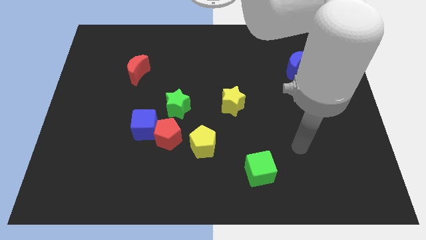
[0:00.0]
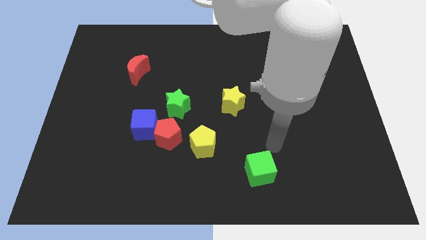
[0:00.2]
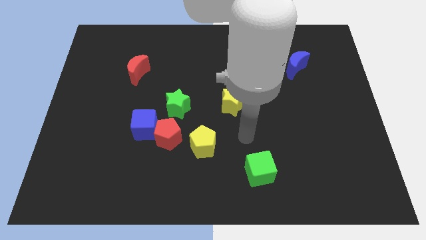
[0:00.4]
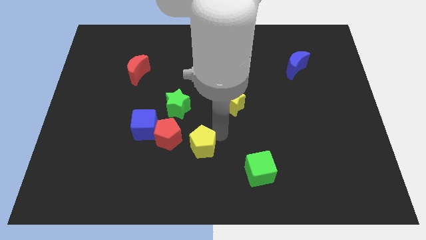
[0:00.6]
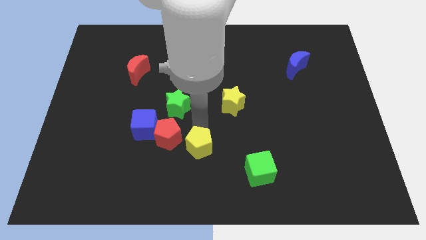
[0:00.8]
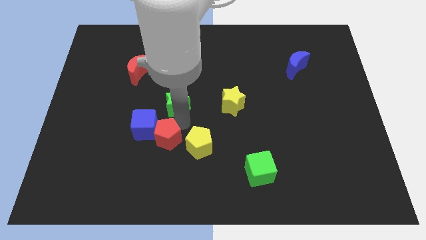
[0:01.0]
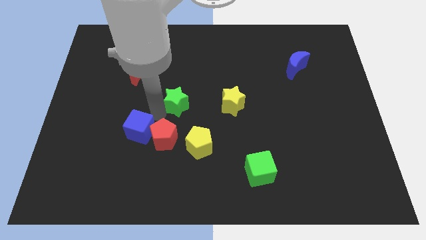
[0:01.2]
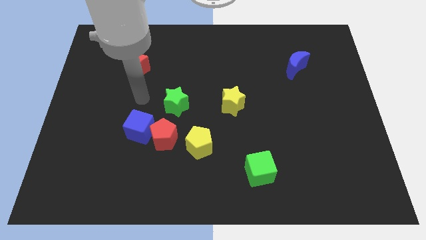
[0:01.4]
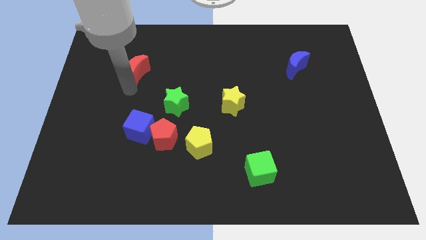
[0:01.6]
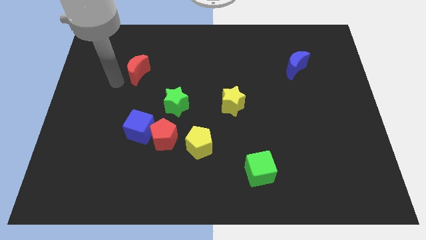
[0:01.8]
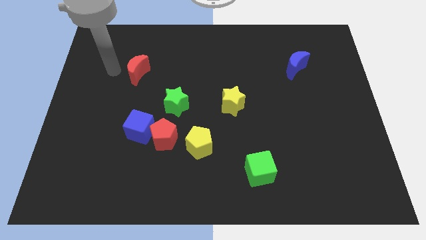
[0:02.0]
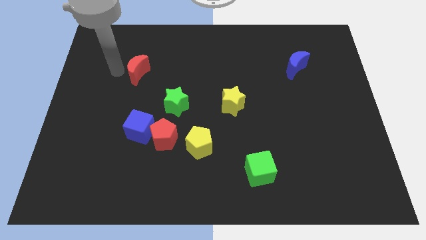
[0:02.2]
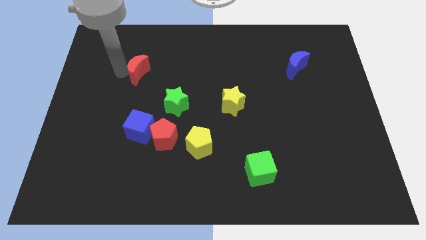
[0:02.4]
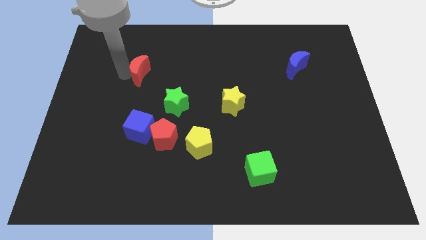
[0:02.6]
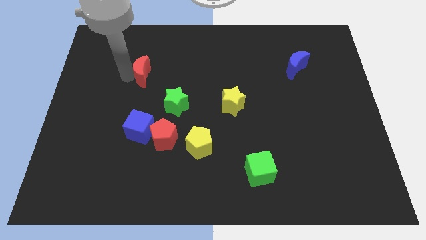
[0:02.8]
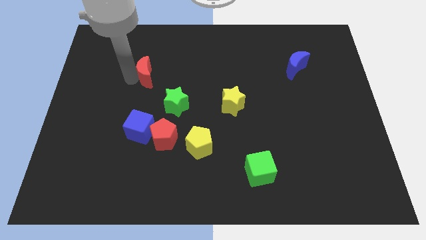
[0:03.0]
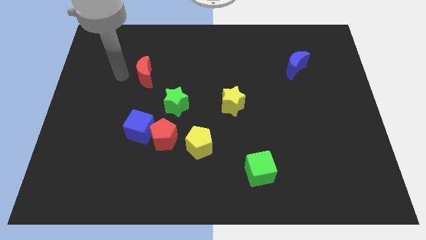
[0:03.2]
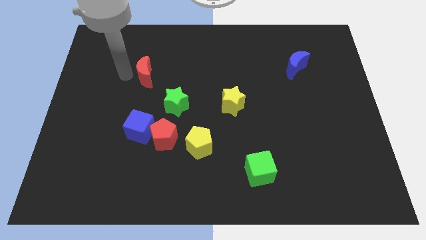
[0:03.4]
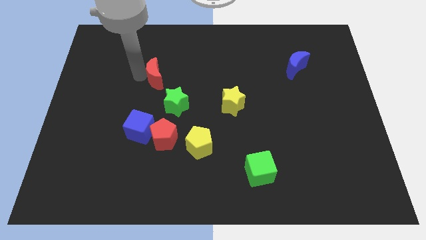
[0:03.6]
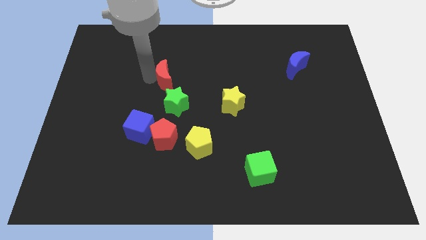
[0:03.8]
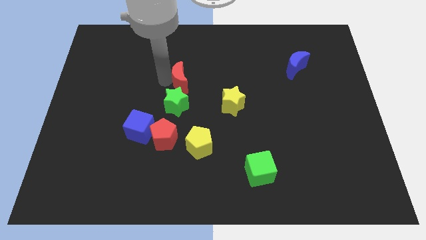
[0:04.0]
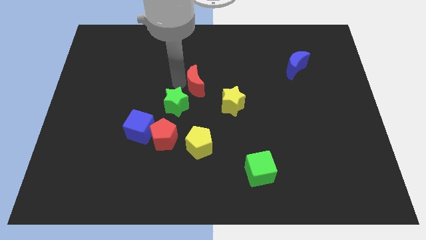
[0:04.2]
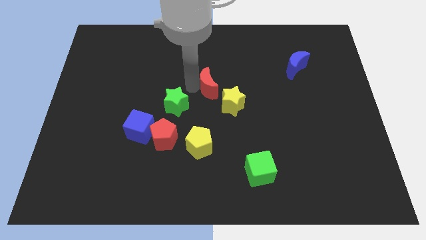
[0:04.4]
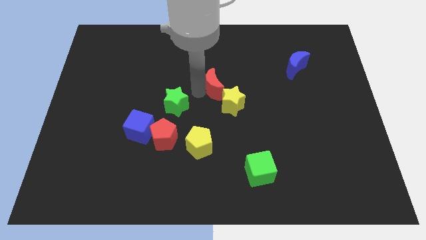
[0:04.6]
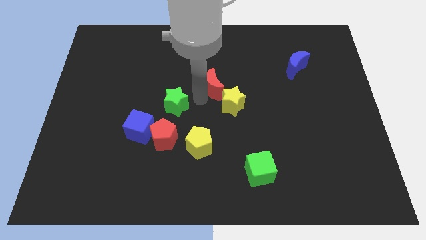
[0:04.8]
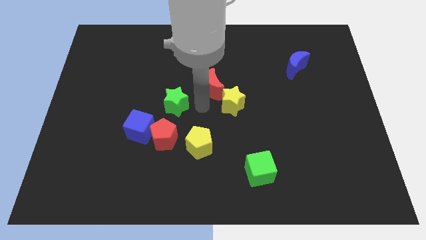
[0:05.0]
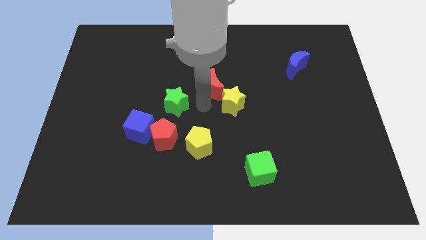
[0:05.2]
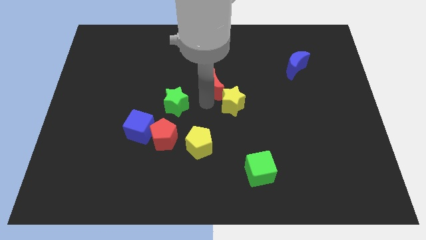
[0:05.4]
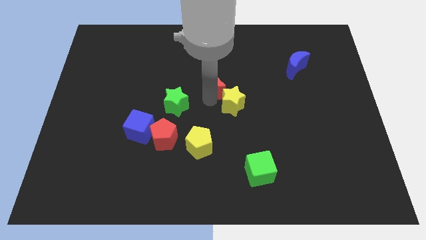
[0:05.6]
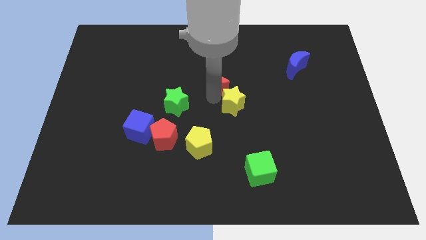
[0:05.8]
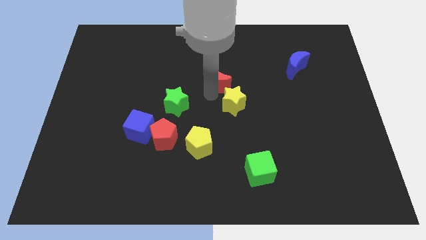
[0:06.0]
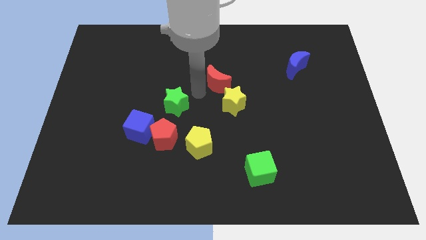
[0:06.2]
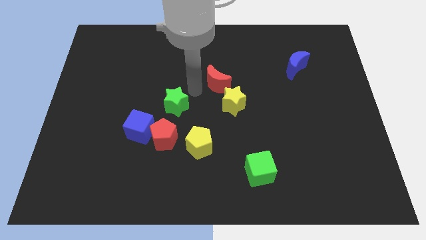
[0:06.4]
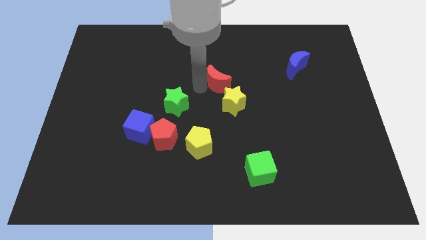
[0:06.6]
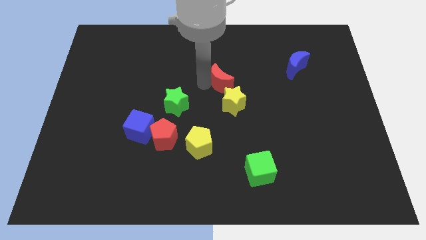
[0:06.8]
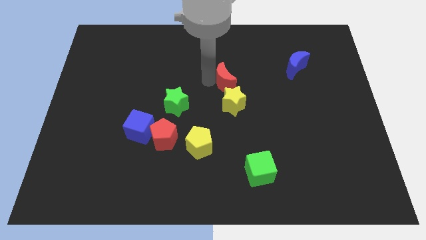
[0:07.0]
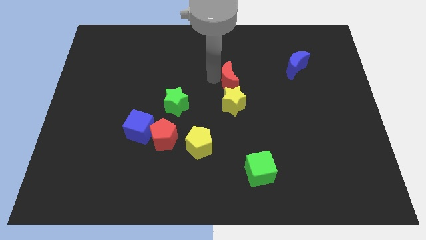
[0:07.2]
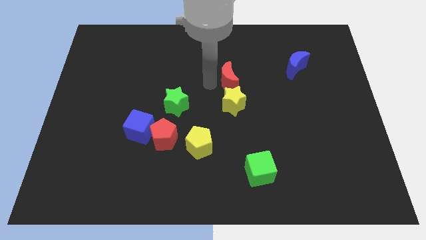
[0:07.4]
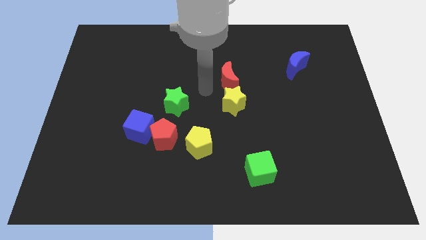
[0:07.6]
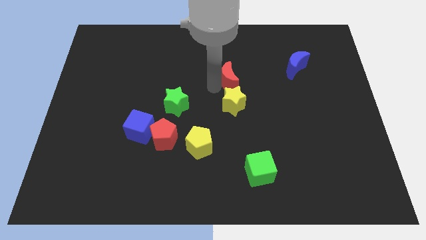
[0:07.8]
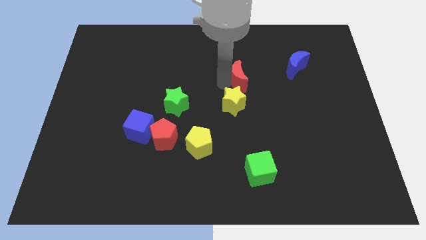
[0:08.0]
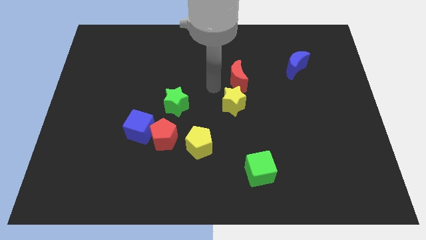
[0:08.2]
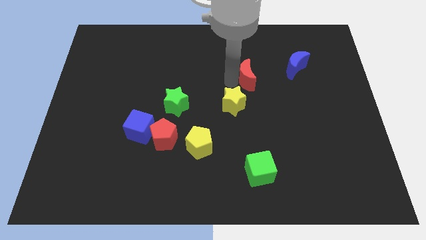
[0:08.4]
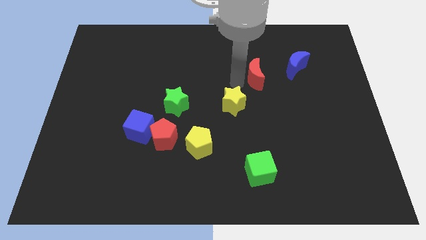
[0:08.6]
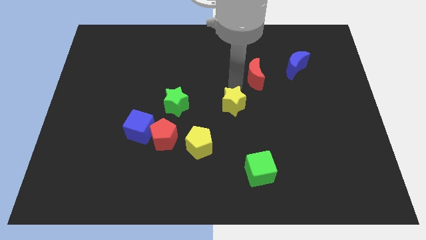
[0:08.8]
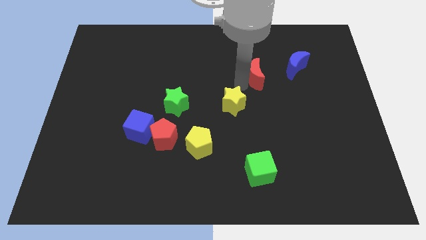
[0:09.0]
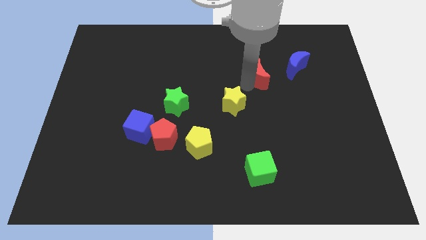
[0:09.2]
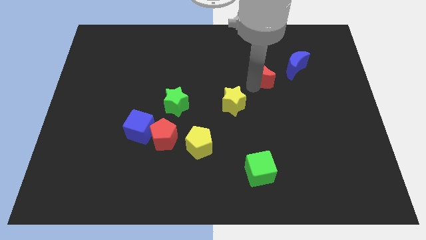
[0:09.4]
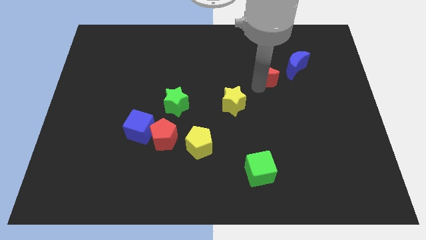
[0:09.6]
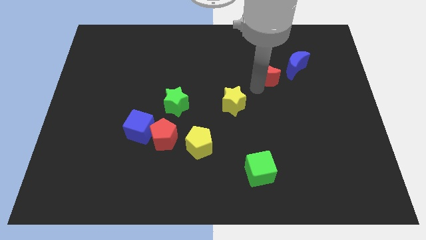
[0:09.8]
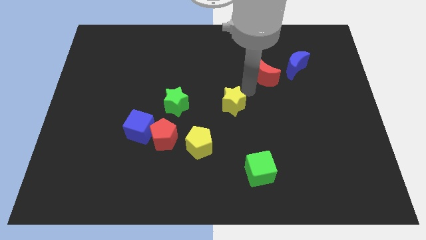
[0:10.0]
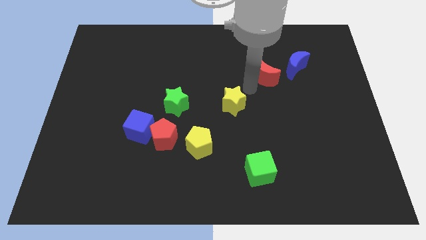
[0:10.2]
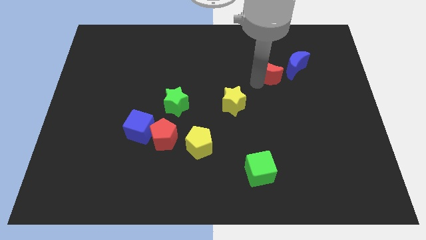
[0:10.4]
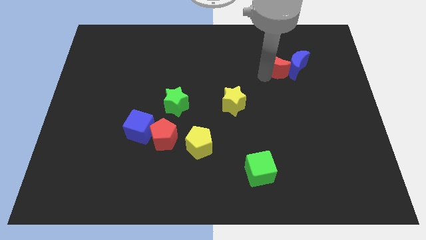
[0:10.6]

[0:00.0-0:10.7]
slide the red moon close to the blue moon

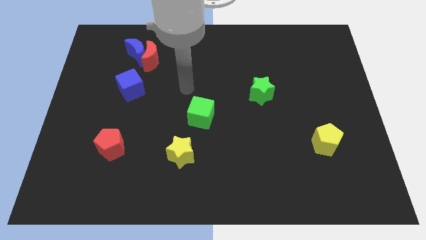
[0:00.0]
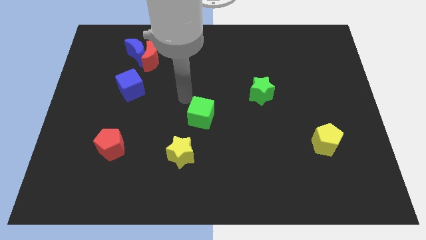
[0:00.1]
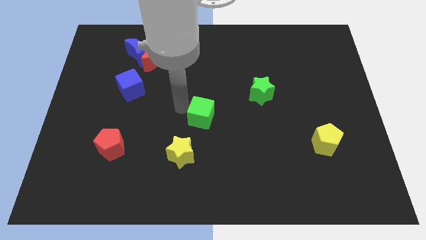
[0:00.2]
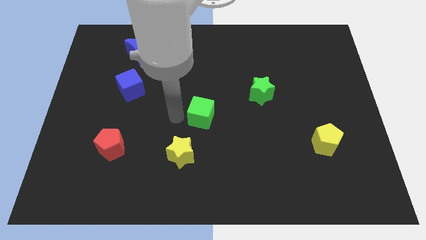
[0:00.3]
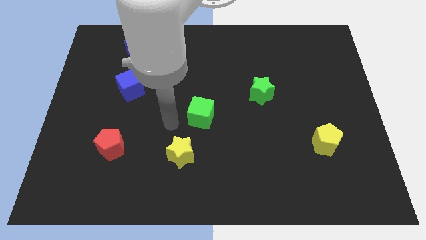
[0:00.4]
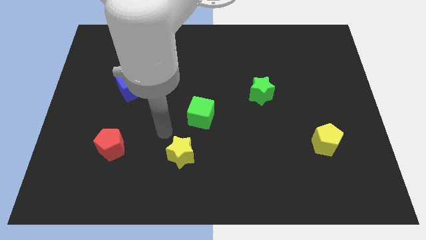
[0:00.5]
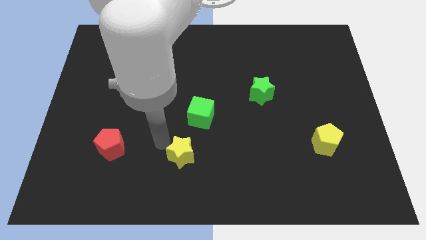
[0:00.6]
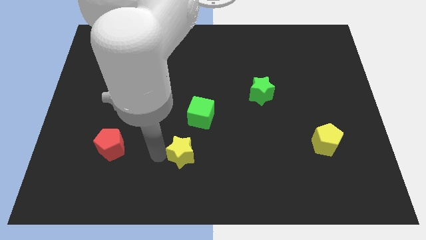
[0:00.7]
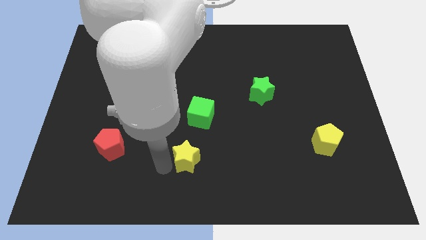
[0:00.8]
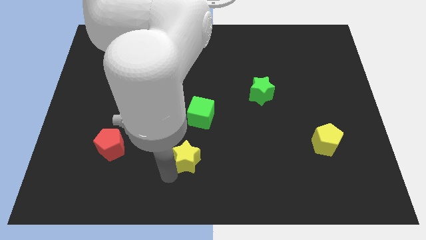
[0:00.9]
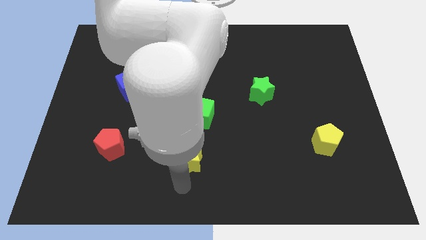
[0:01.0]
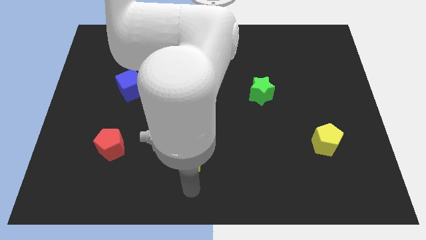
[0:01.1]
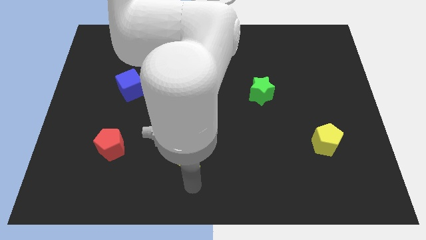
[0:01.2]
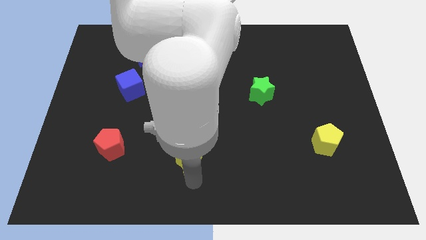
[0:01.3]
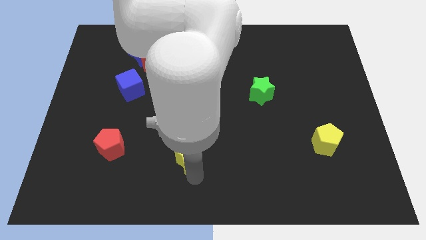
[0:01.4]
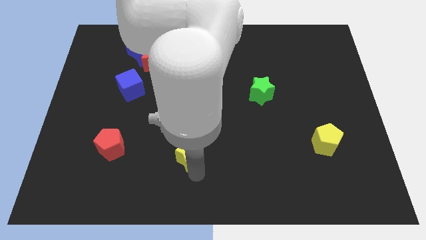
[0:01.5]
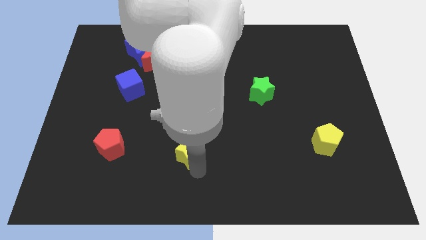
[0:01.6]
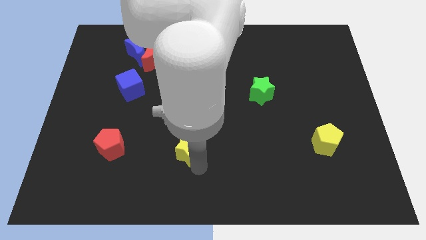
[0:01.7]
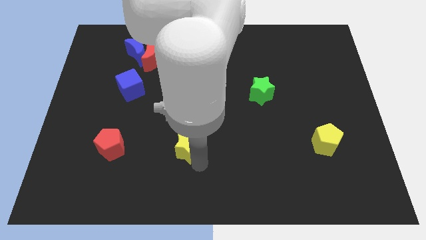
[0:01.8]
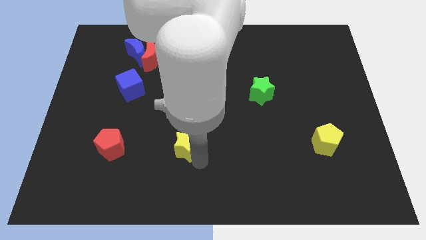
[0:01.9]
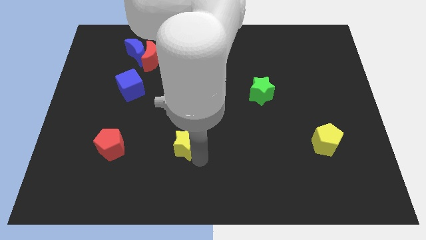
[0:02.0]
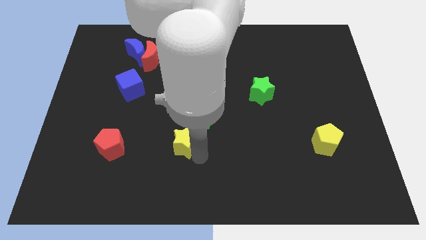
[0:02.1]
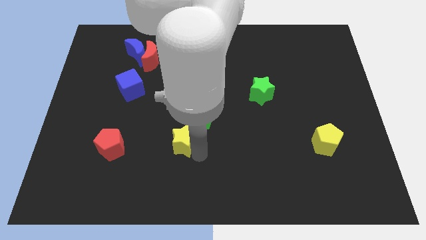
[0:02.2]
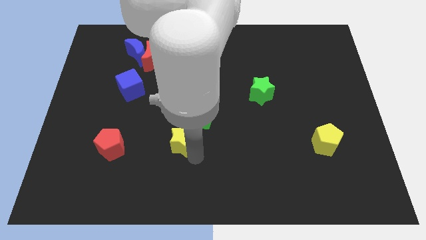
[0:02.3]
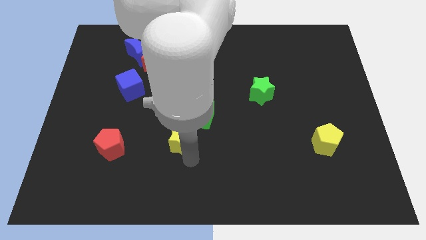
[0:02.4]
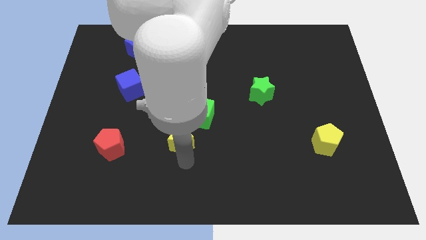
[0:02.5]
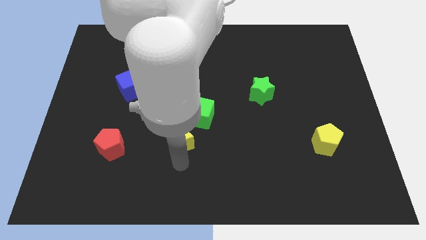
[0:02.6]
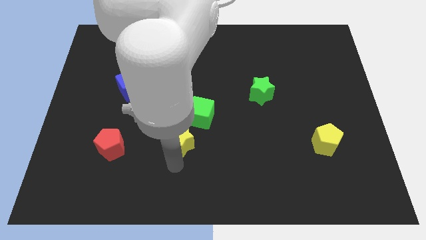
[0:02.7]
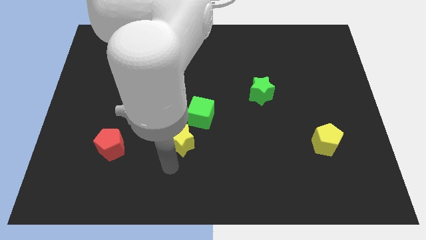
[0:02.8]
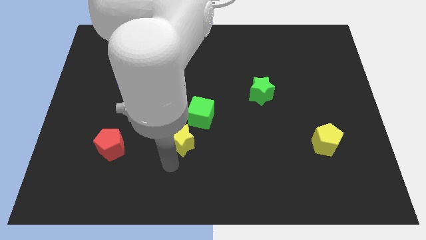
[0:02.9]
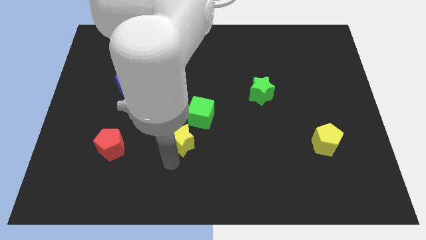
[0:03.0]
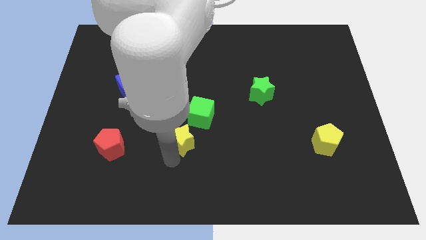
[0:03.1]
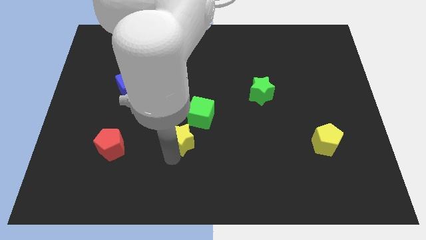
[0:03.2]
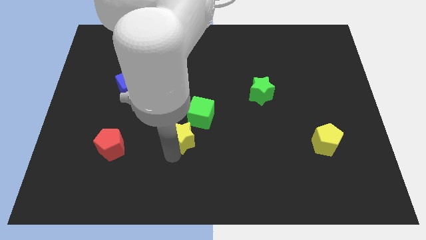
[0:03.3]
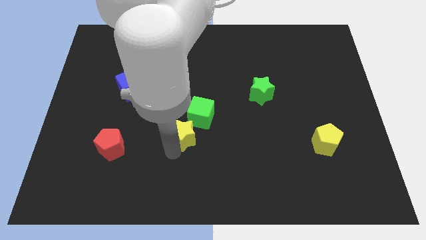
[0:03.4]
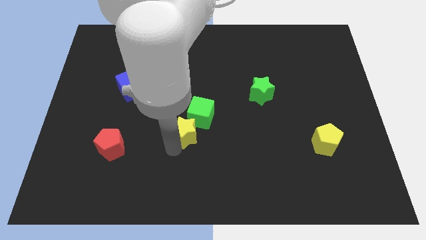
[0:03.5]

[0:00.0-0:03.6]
move the yellow star towards the green cube
